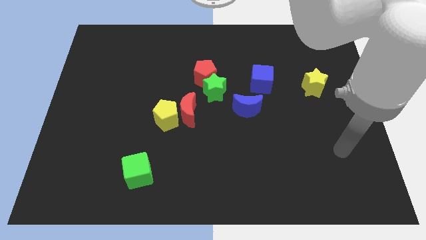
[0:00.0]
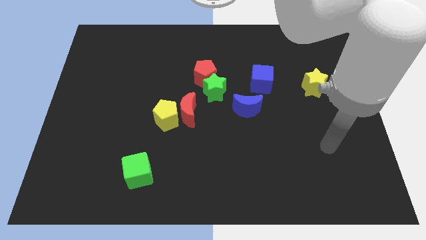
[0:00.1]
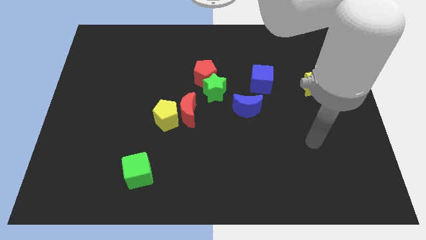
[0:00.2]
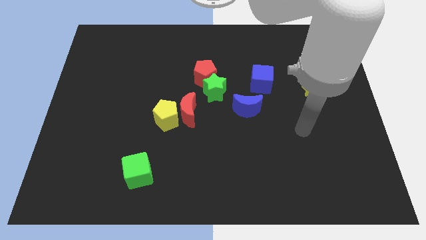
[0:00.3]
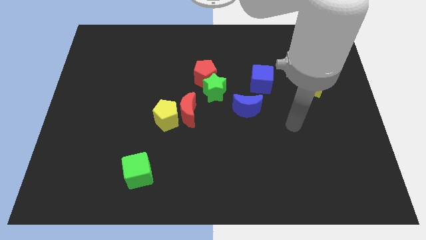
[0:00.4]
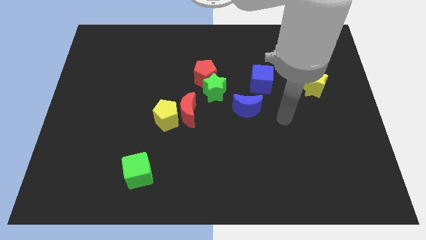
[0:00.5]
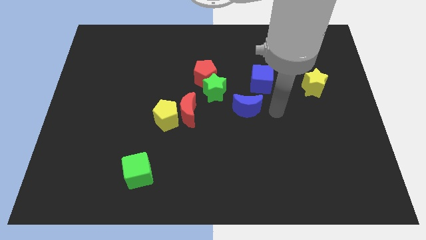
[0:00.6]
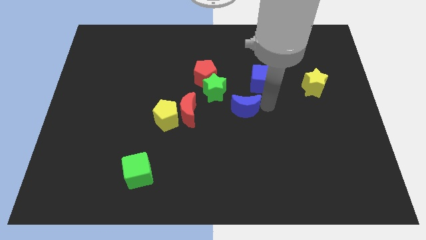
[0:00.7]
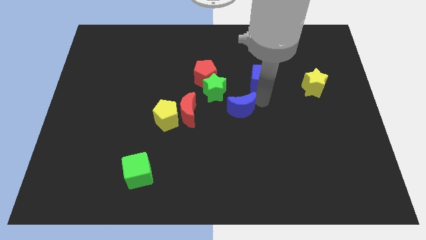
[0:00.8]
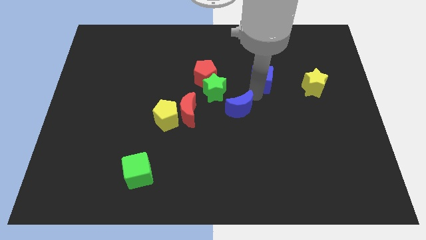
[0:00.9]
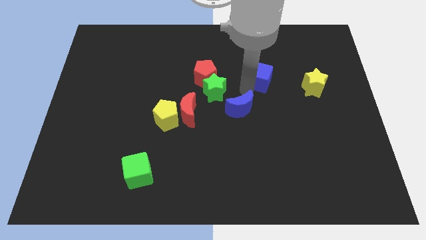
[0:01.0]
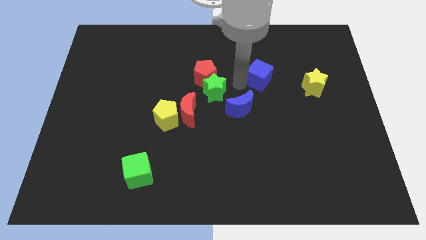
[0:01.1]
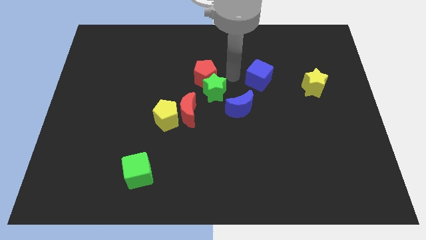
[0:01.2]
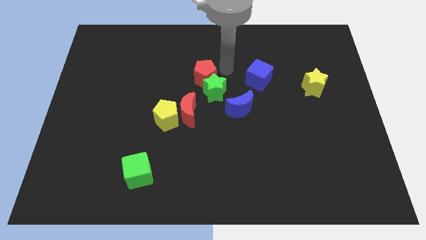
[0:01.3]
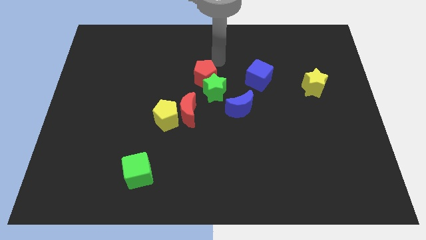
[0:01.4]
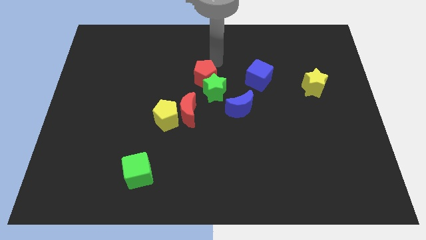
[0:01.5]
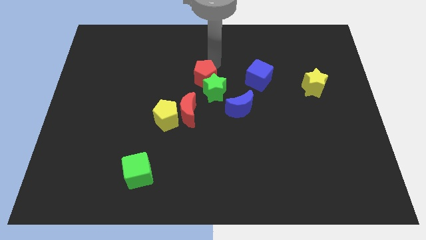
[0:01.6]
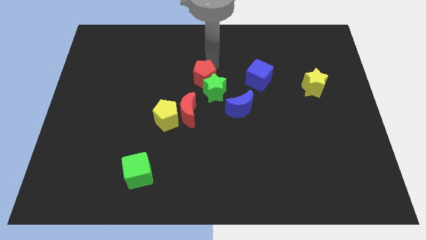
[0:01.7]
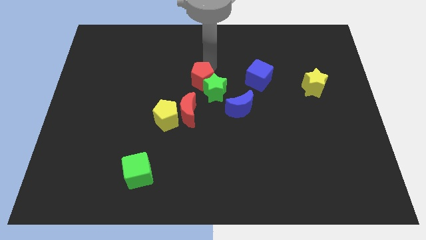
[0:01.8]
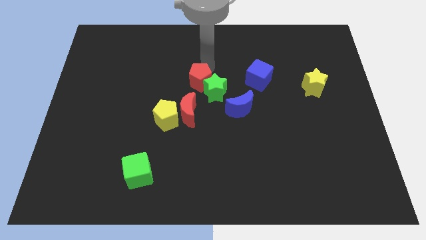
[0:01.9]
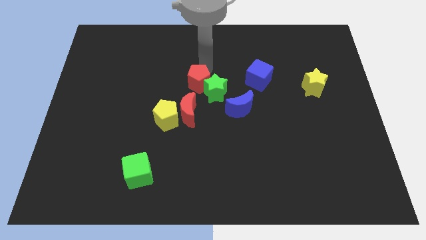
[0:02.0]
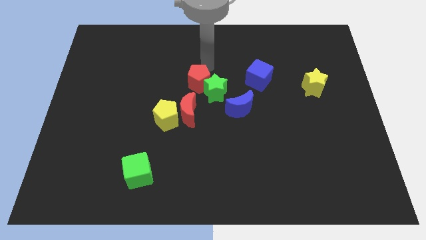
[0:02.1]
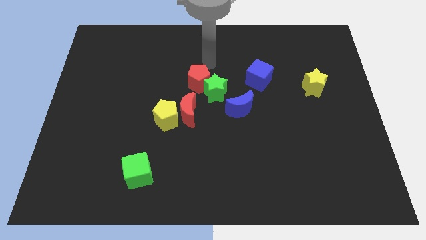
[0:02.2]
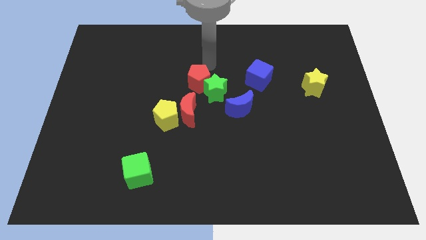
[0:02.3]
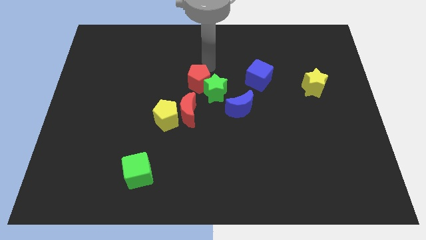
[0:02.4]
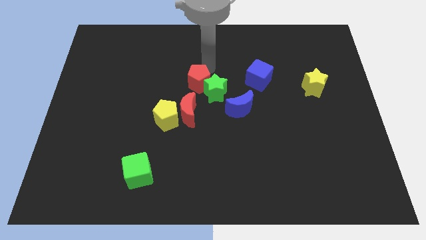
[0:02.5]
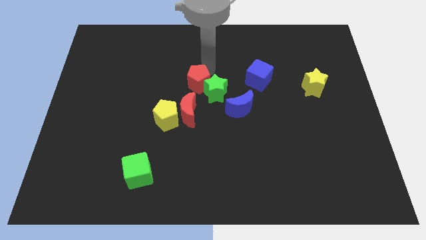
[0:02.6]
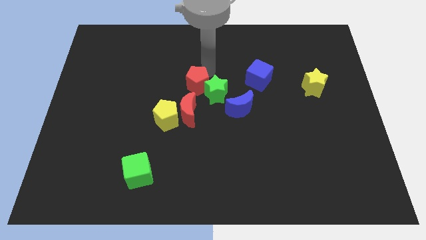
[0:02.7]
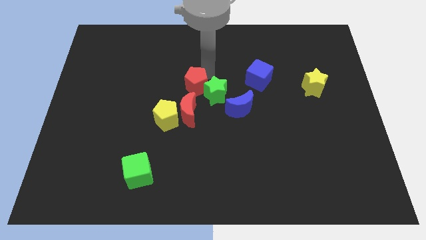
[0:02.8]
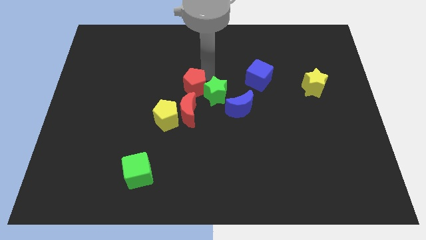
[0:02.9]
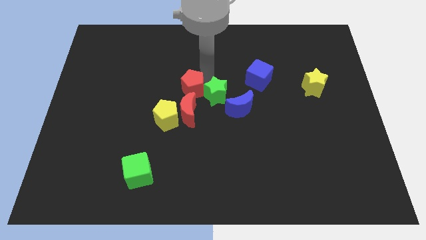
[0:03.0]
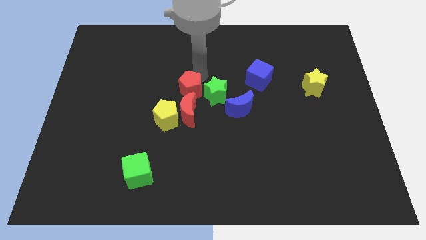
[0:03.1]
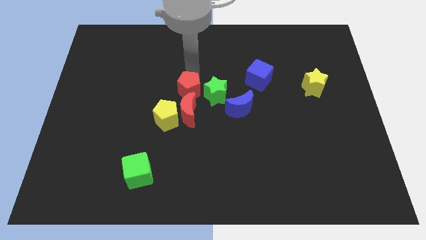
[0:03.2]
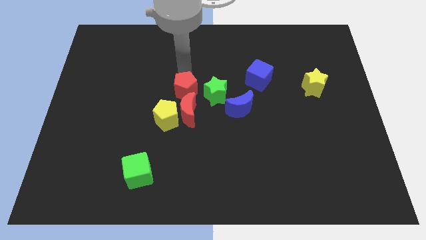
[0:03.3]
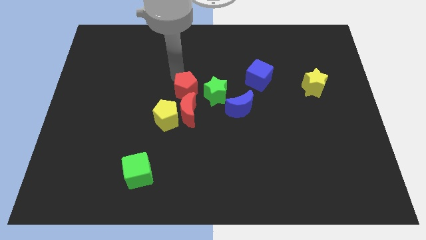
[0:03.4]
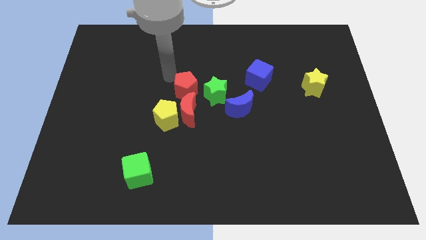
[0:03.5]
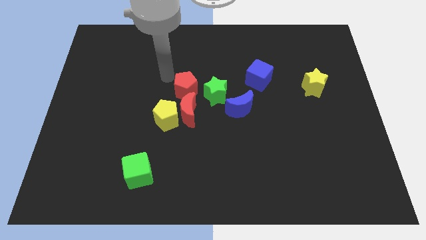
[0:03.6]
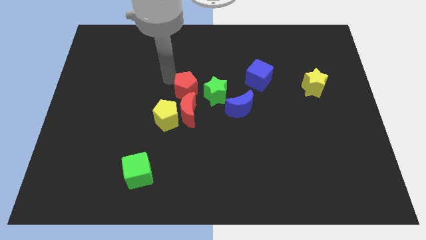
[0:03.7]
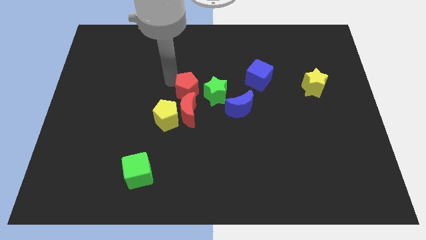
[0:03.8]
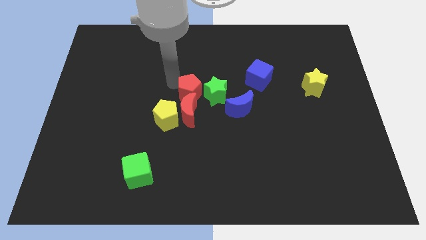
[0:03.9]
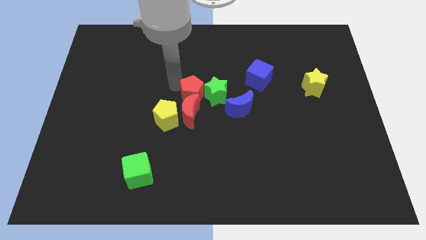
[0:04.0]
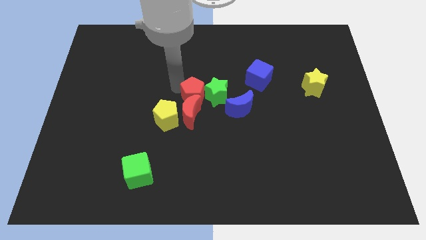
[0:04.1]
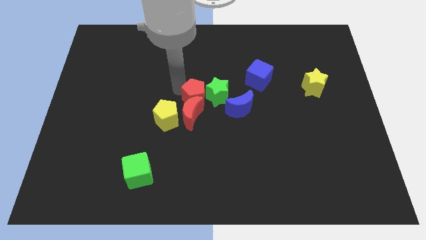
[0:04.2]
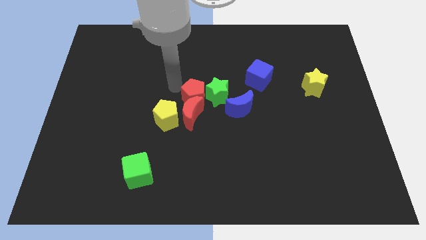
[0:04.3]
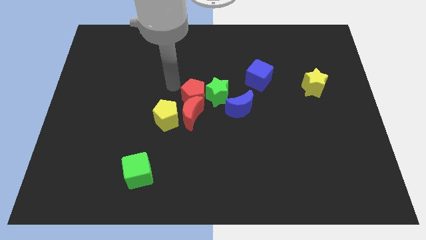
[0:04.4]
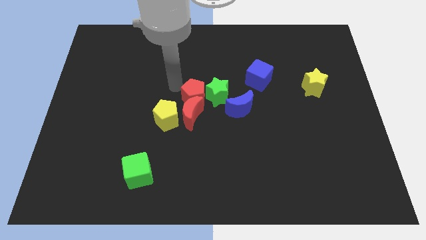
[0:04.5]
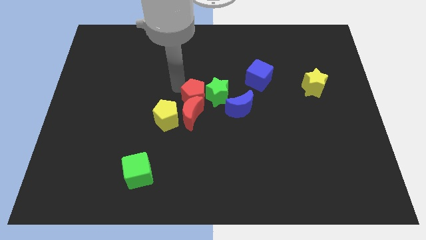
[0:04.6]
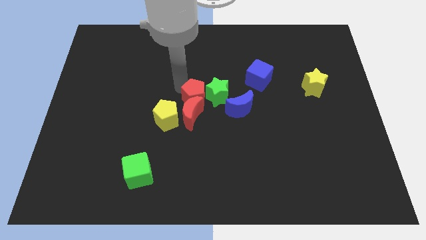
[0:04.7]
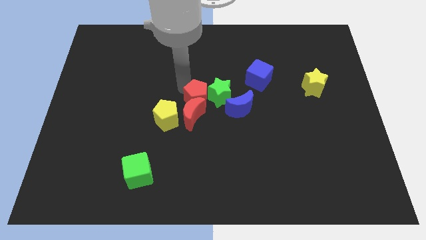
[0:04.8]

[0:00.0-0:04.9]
slide the red pentagon a bit downwards

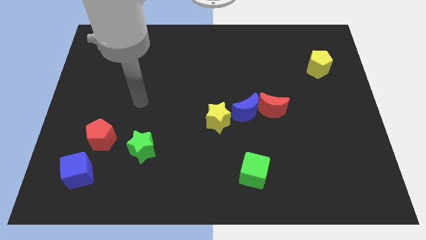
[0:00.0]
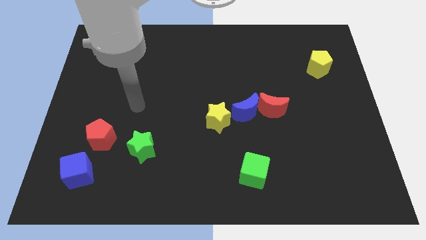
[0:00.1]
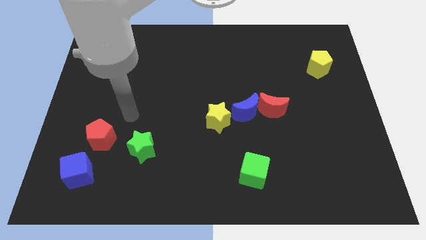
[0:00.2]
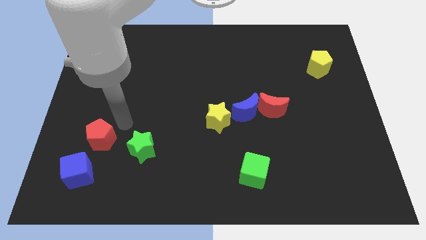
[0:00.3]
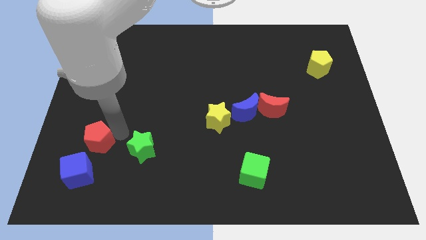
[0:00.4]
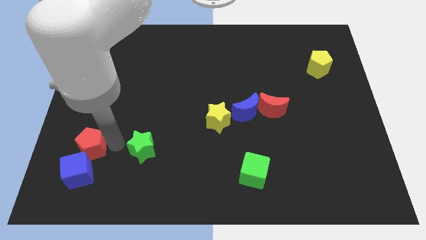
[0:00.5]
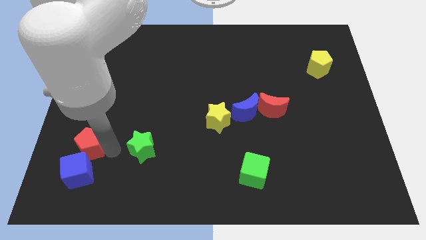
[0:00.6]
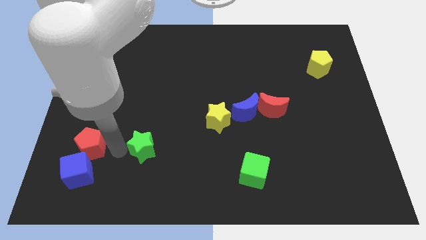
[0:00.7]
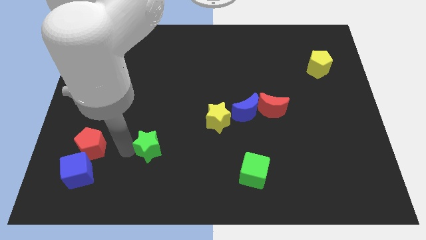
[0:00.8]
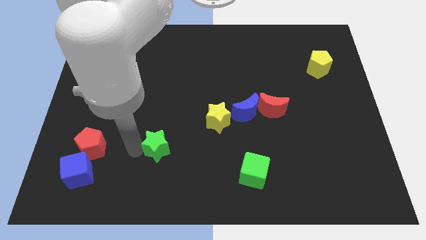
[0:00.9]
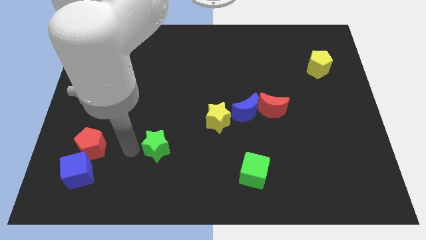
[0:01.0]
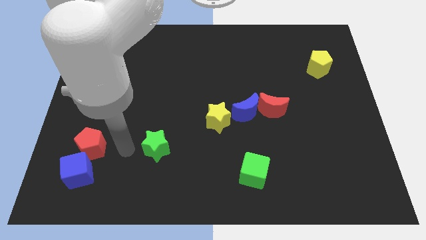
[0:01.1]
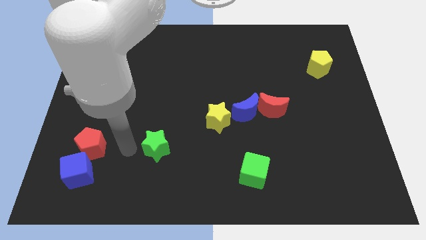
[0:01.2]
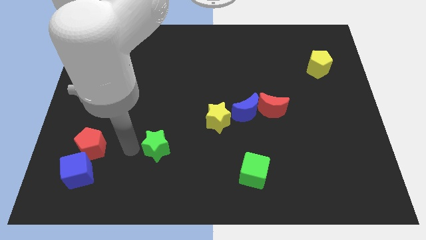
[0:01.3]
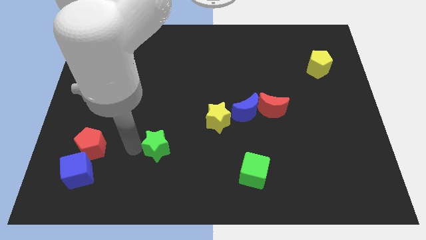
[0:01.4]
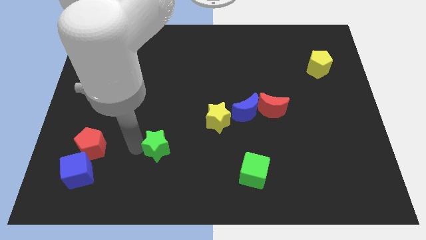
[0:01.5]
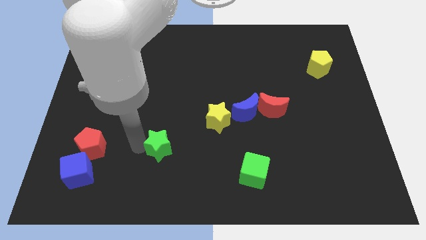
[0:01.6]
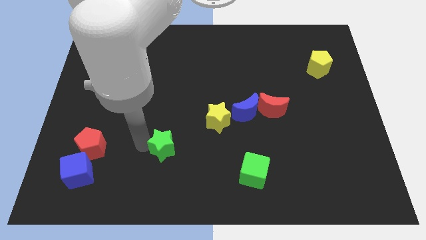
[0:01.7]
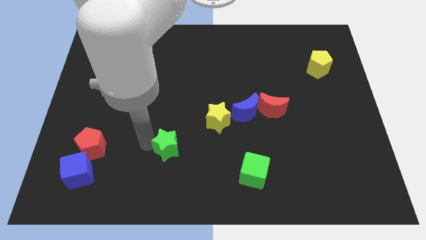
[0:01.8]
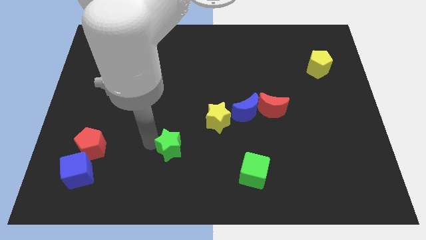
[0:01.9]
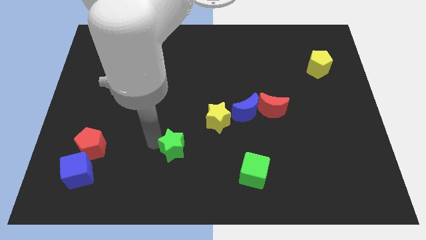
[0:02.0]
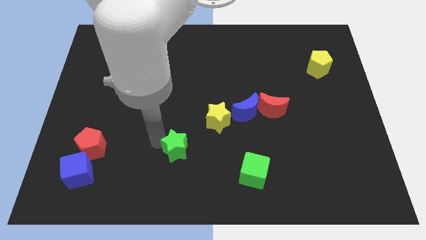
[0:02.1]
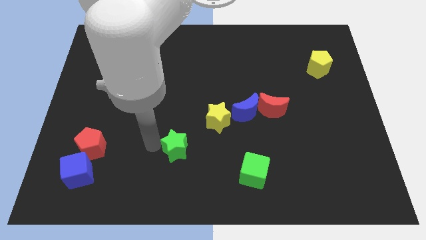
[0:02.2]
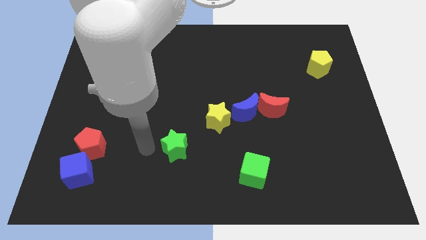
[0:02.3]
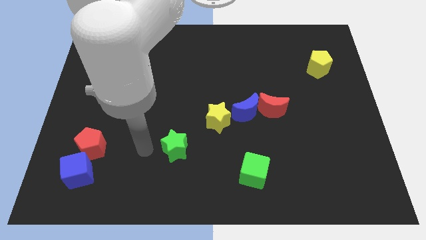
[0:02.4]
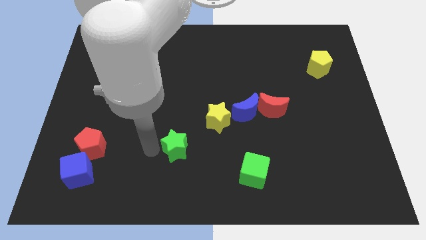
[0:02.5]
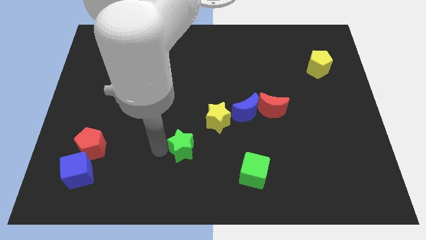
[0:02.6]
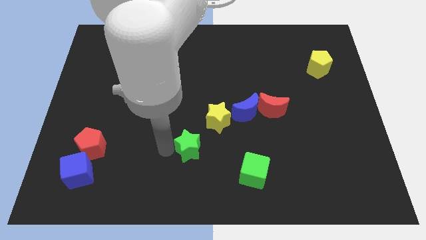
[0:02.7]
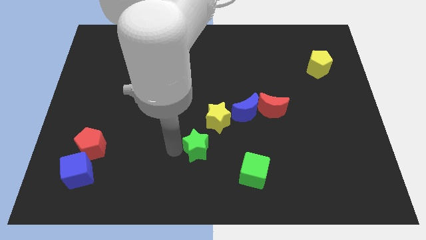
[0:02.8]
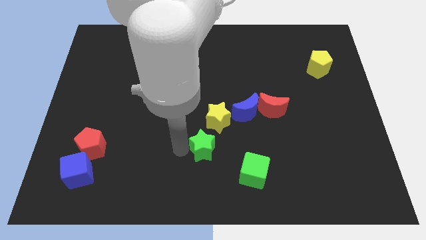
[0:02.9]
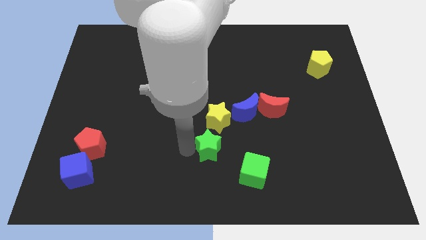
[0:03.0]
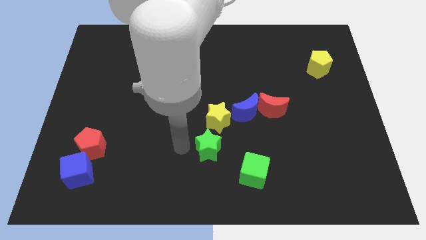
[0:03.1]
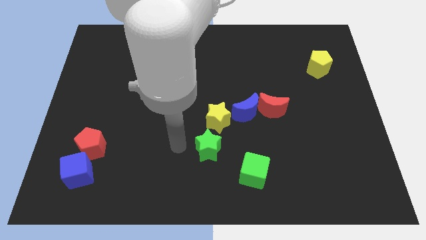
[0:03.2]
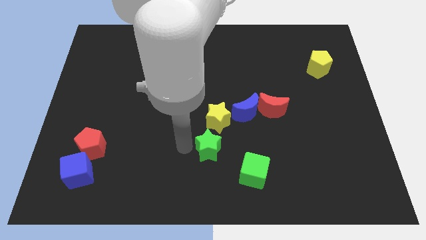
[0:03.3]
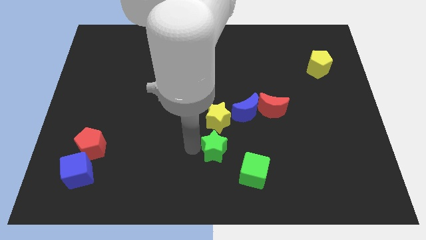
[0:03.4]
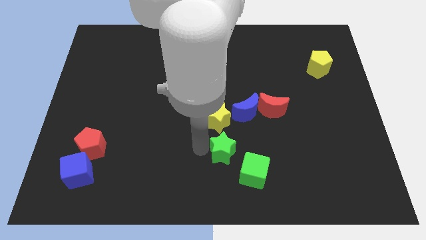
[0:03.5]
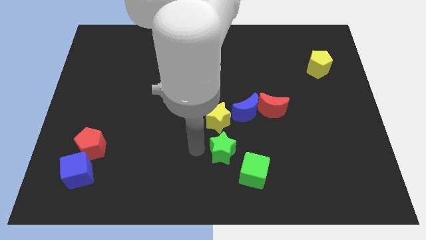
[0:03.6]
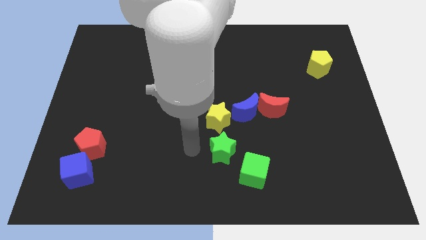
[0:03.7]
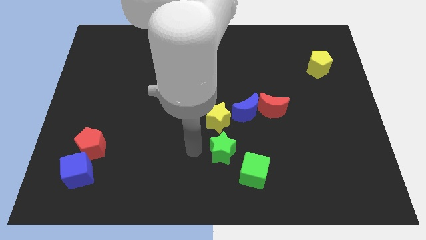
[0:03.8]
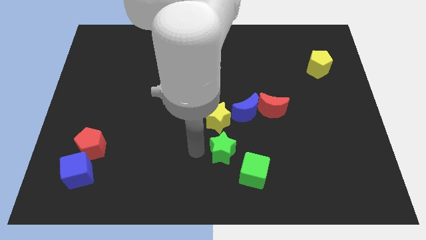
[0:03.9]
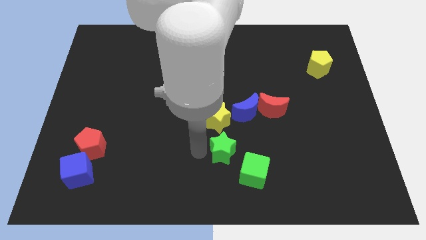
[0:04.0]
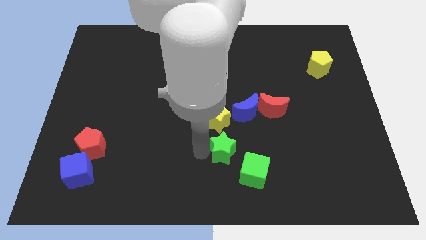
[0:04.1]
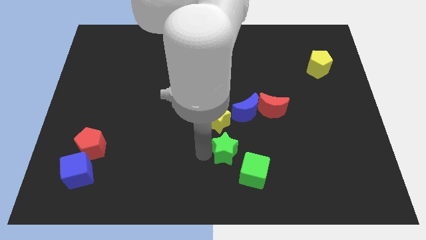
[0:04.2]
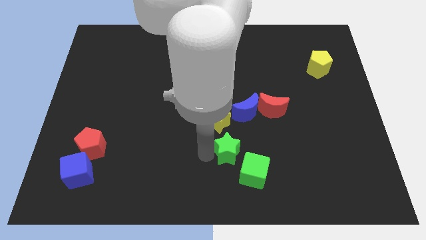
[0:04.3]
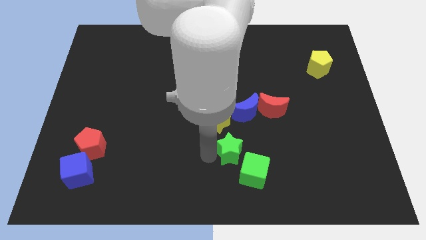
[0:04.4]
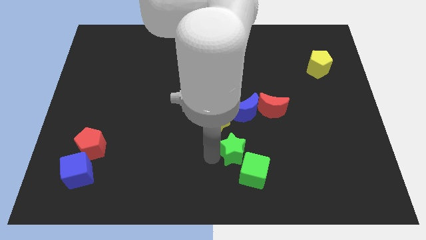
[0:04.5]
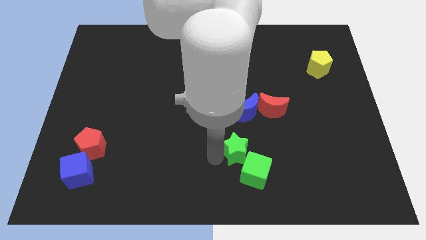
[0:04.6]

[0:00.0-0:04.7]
push the green star to the right
